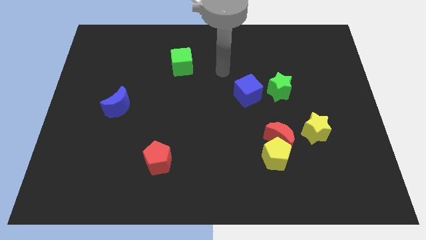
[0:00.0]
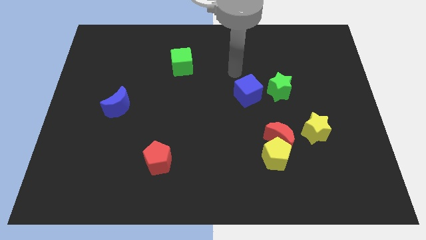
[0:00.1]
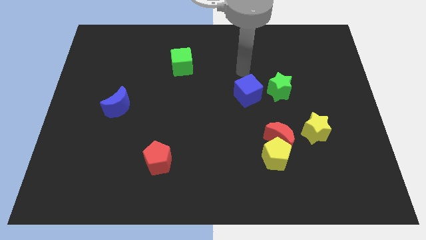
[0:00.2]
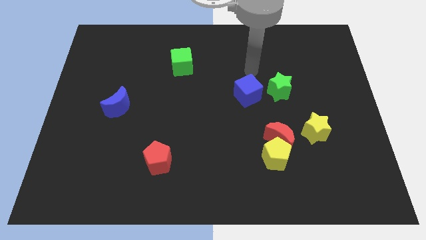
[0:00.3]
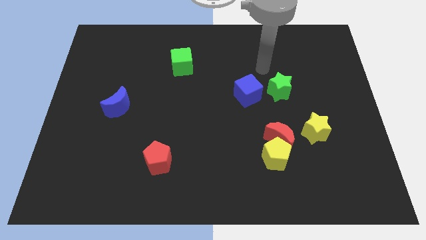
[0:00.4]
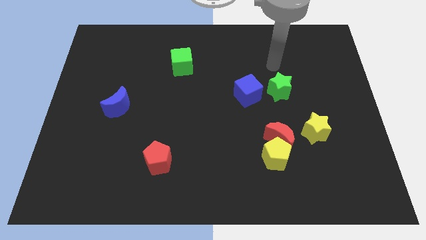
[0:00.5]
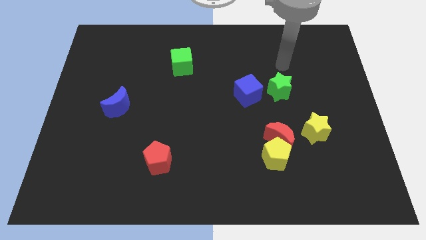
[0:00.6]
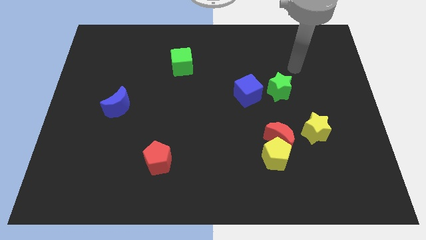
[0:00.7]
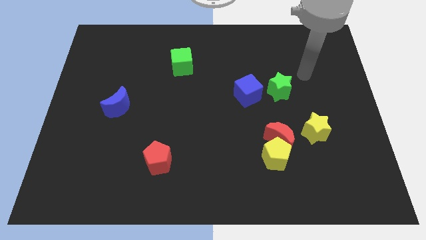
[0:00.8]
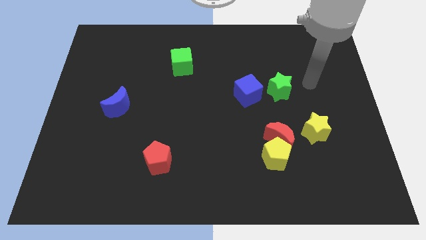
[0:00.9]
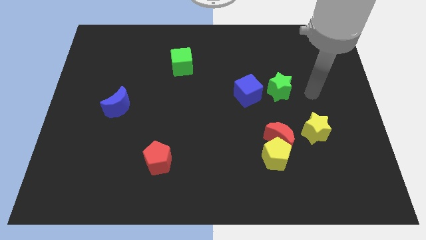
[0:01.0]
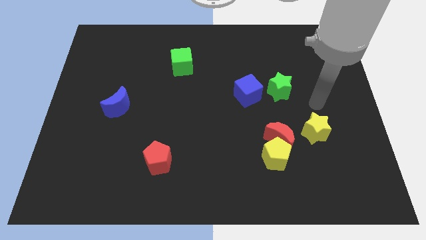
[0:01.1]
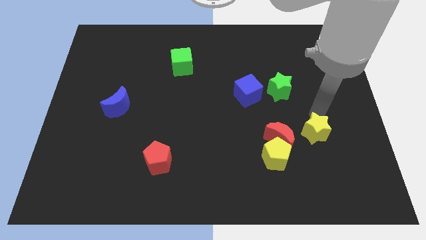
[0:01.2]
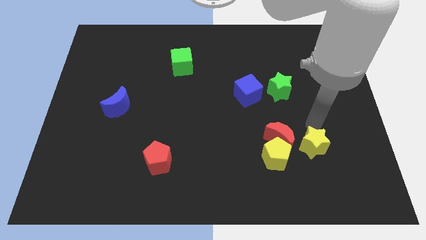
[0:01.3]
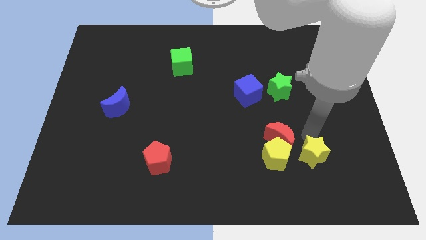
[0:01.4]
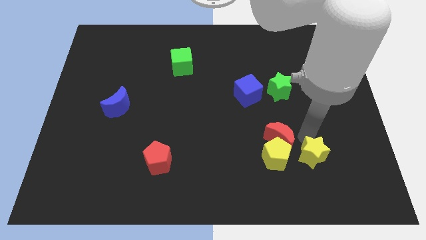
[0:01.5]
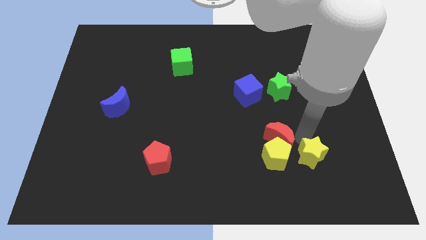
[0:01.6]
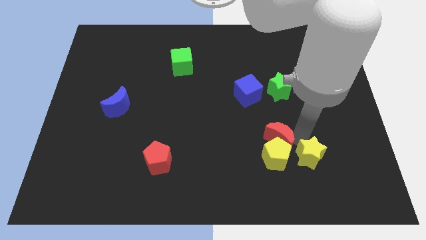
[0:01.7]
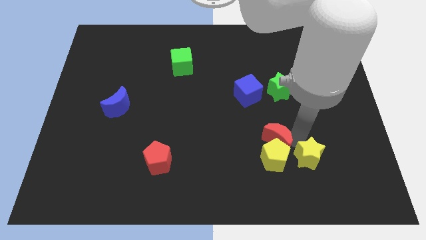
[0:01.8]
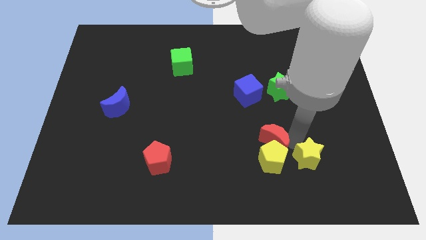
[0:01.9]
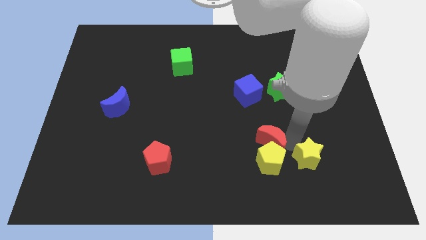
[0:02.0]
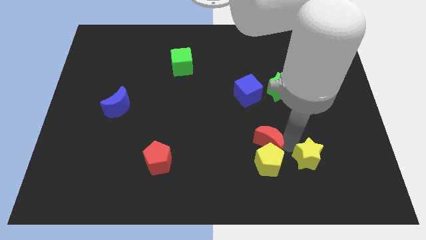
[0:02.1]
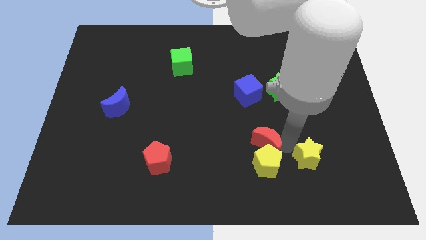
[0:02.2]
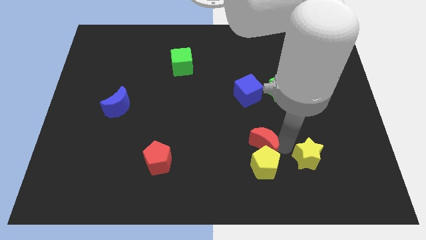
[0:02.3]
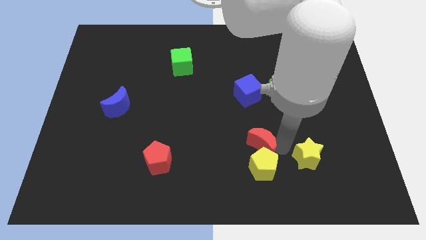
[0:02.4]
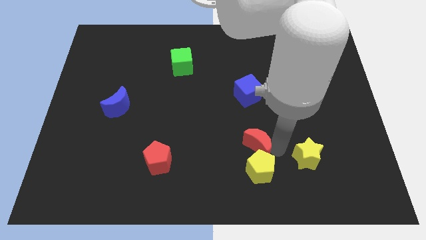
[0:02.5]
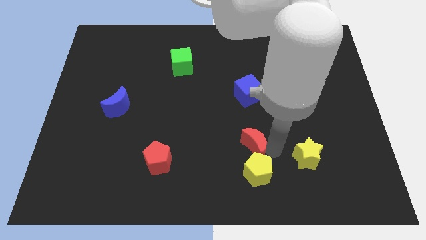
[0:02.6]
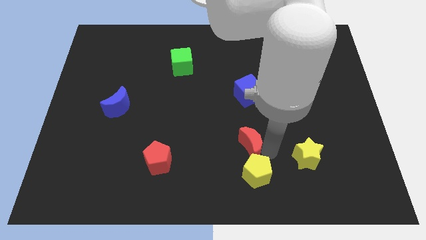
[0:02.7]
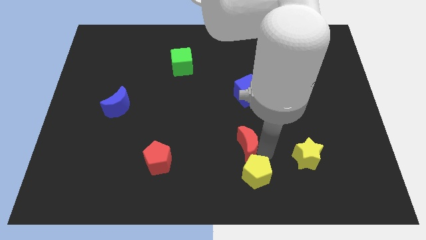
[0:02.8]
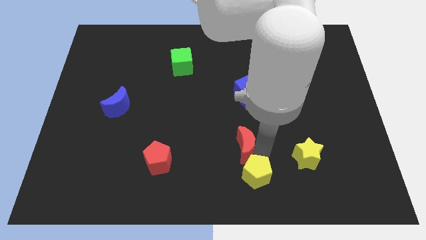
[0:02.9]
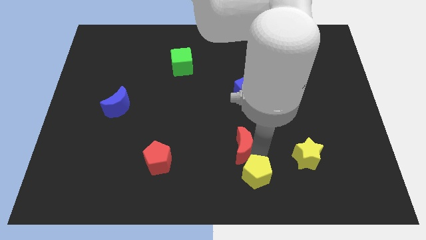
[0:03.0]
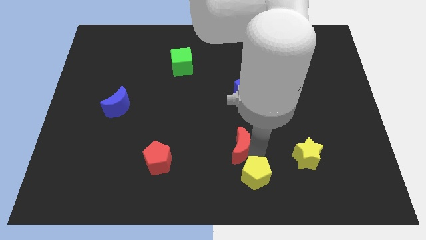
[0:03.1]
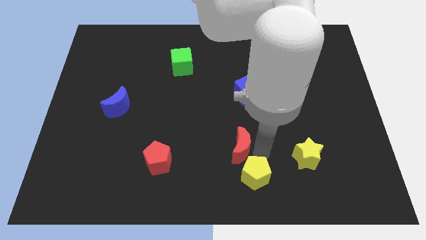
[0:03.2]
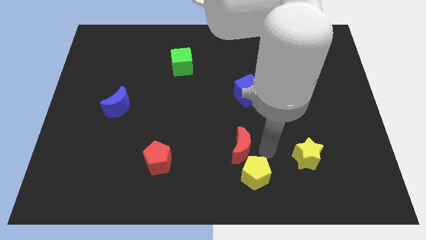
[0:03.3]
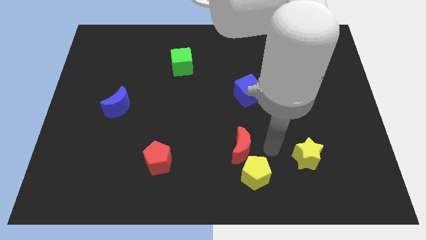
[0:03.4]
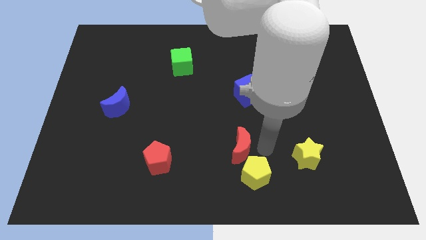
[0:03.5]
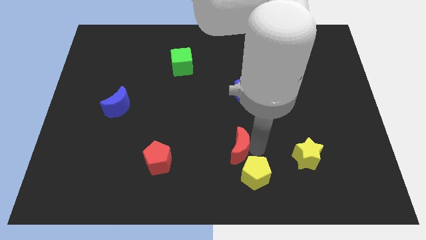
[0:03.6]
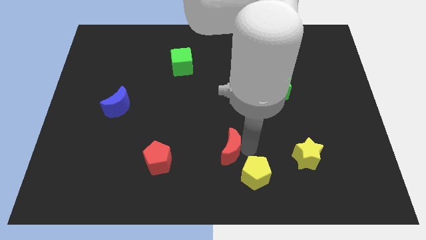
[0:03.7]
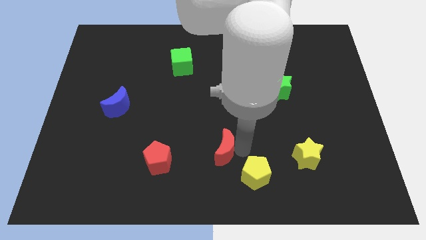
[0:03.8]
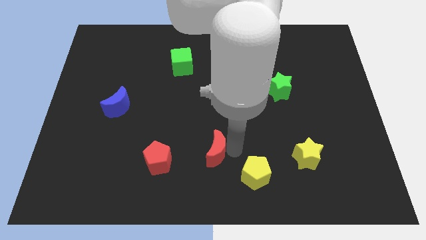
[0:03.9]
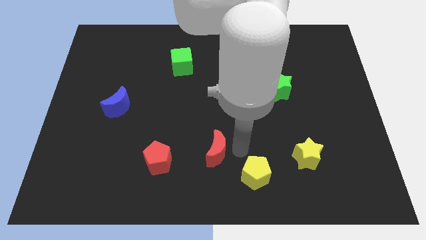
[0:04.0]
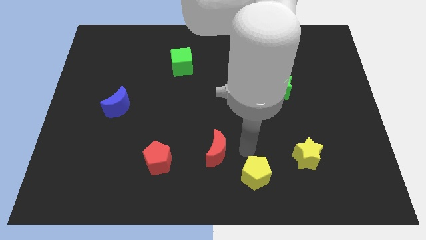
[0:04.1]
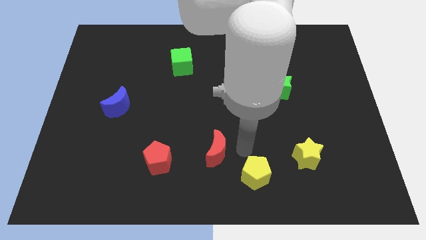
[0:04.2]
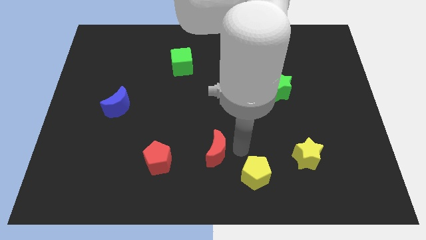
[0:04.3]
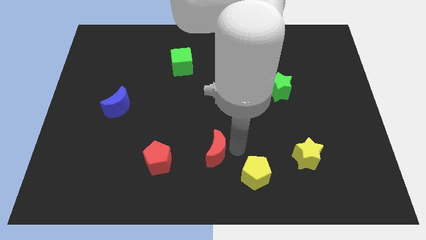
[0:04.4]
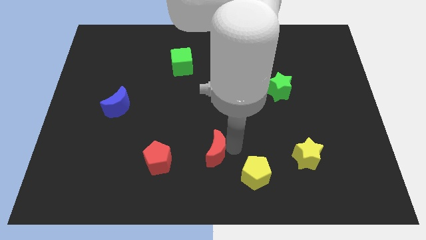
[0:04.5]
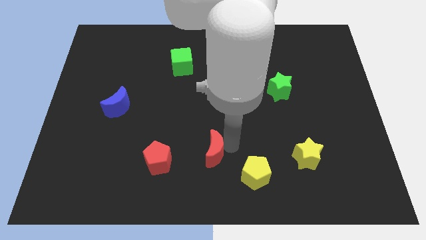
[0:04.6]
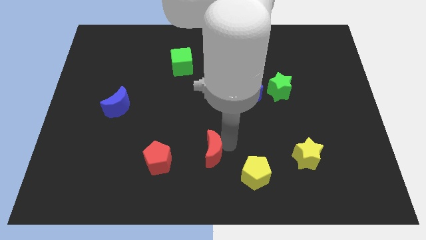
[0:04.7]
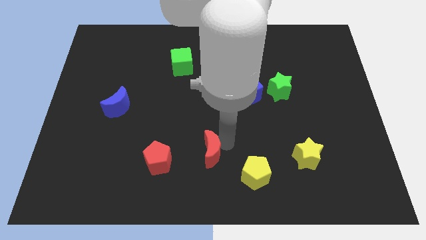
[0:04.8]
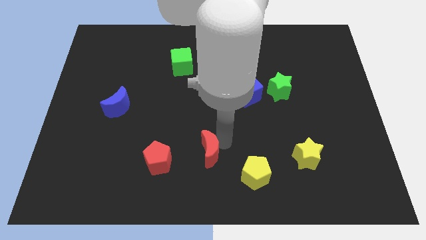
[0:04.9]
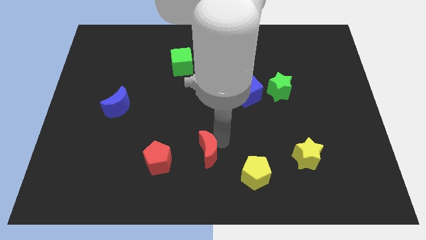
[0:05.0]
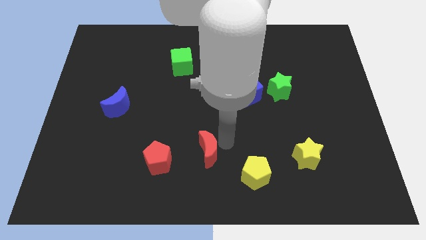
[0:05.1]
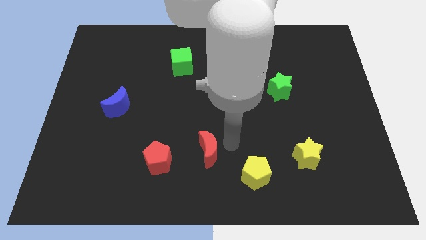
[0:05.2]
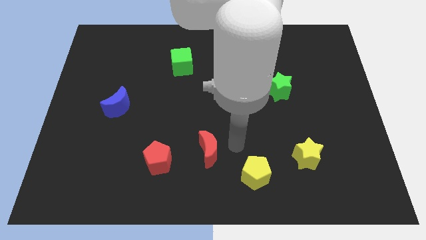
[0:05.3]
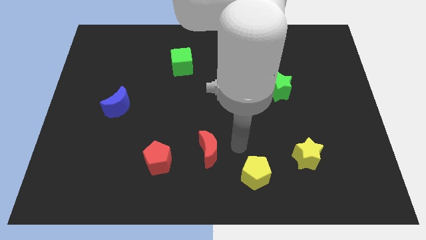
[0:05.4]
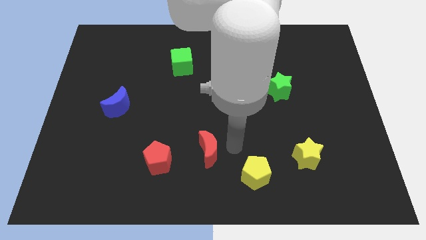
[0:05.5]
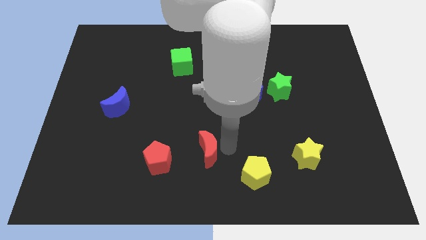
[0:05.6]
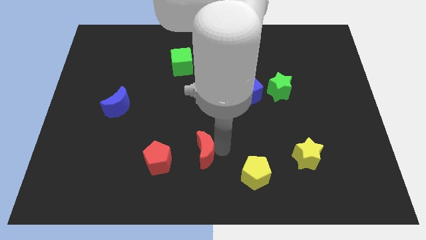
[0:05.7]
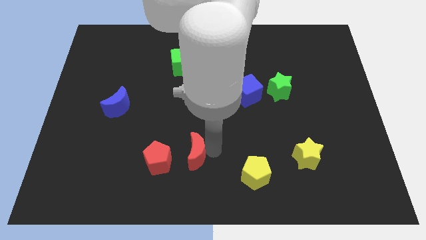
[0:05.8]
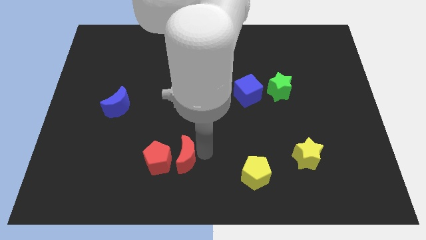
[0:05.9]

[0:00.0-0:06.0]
push the red moon towards the red pentagon

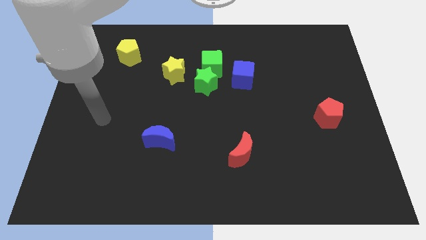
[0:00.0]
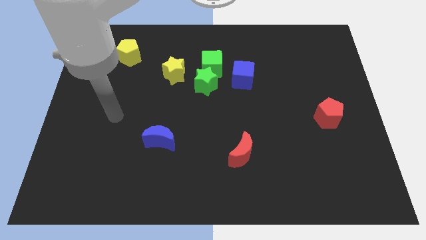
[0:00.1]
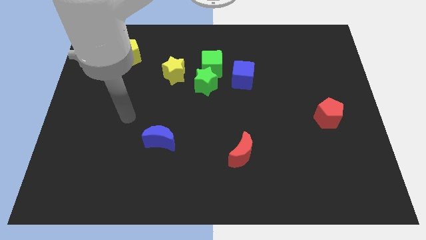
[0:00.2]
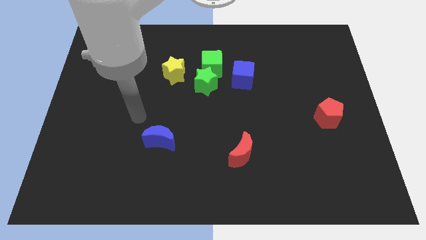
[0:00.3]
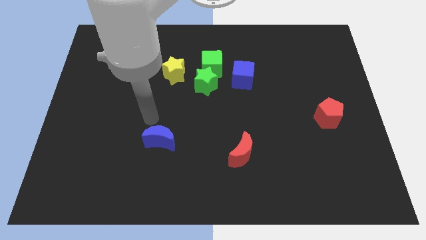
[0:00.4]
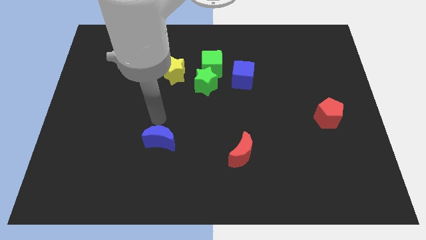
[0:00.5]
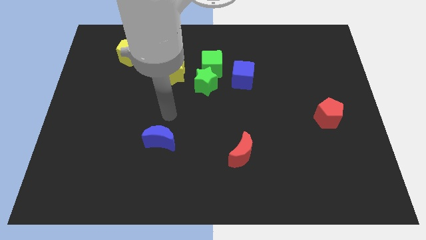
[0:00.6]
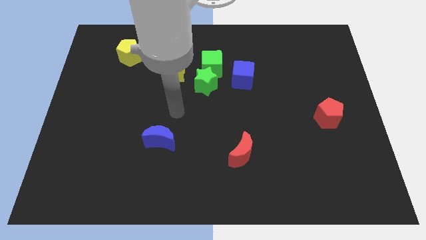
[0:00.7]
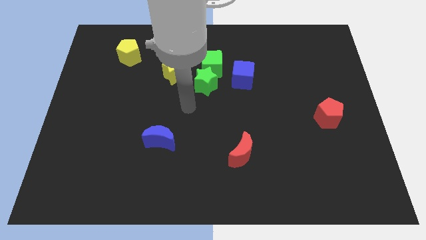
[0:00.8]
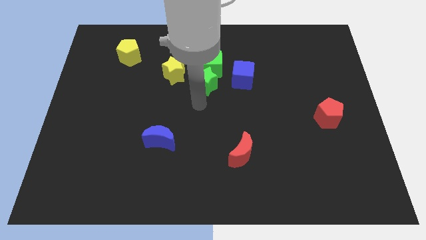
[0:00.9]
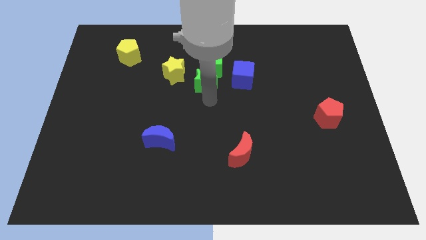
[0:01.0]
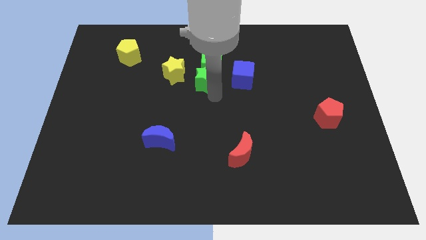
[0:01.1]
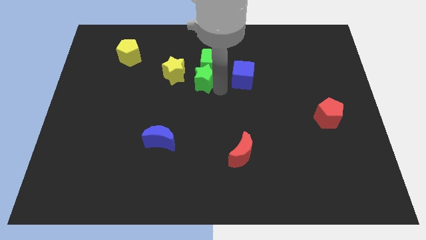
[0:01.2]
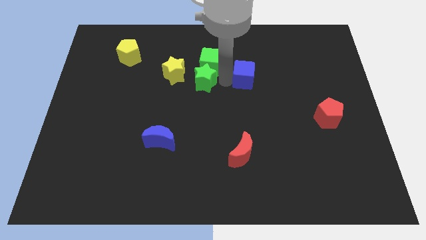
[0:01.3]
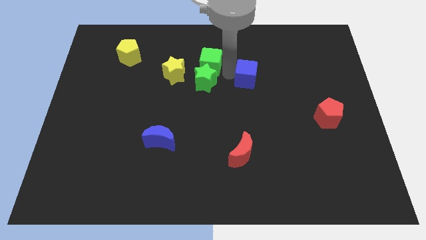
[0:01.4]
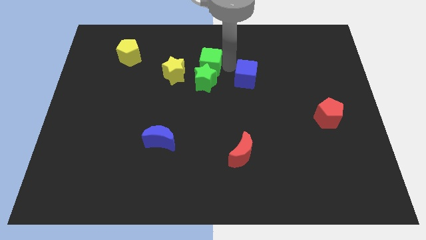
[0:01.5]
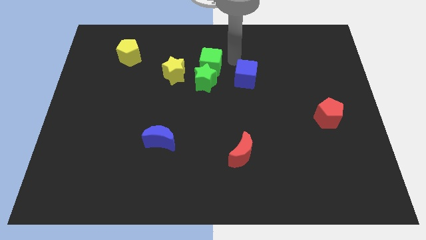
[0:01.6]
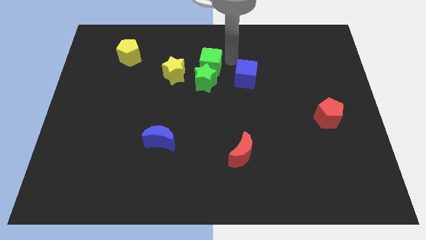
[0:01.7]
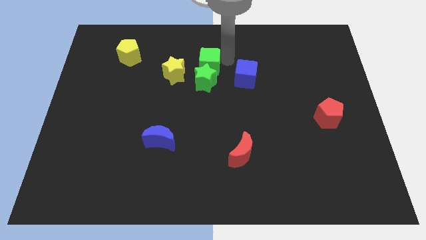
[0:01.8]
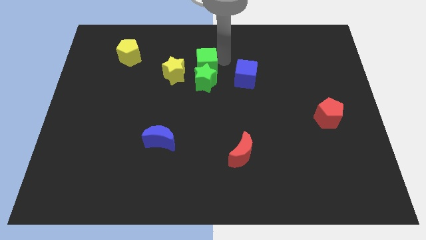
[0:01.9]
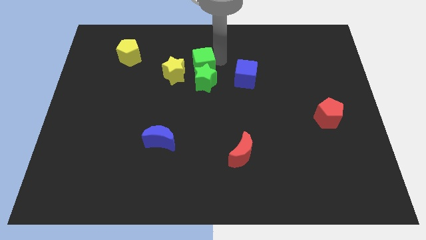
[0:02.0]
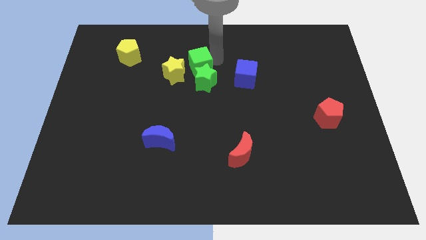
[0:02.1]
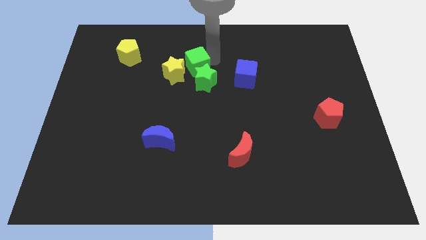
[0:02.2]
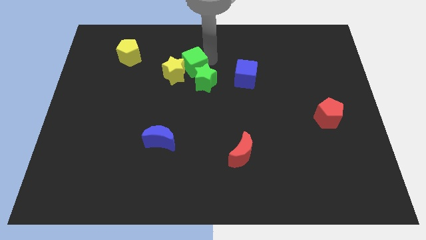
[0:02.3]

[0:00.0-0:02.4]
push the green cube to the yellow star
